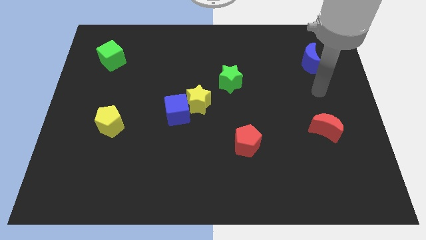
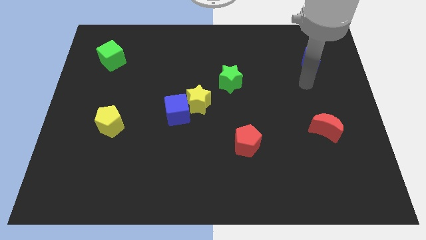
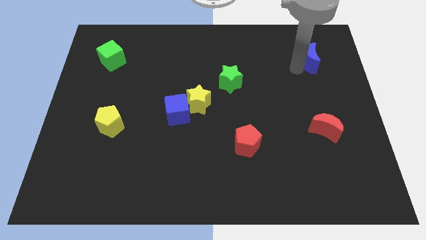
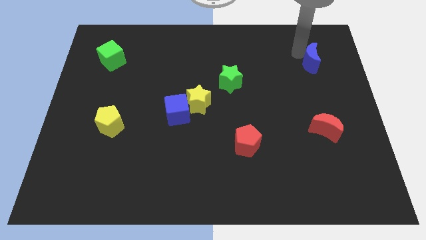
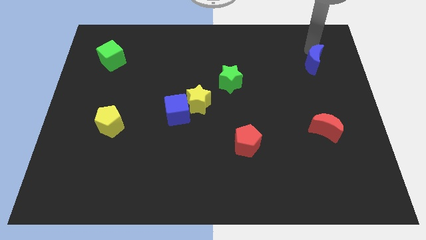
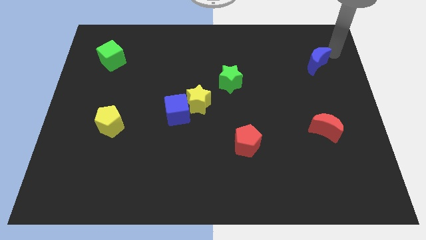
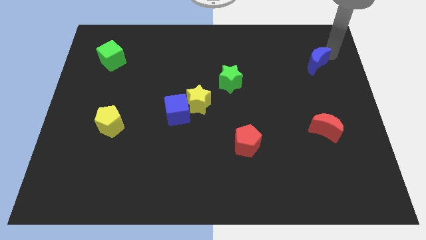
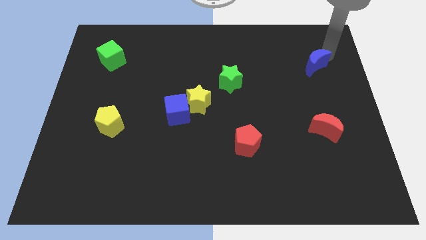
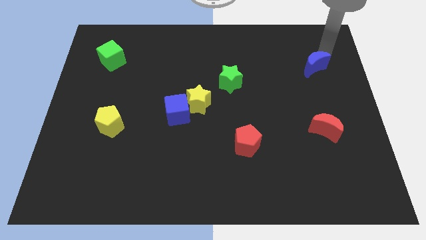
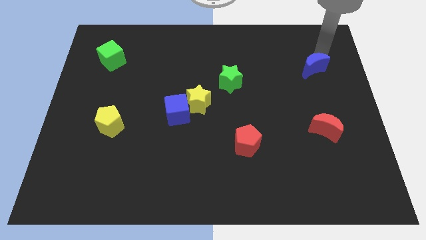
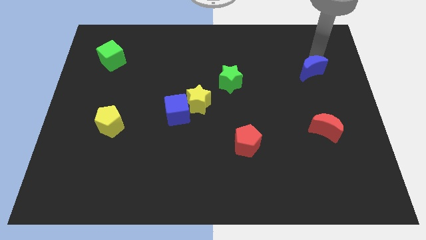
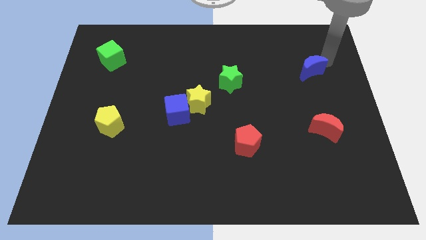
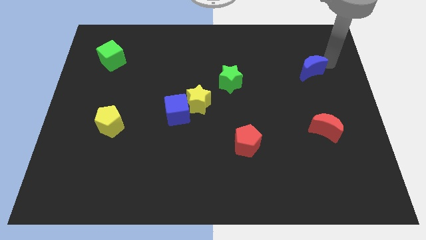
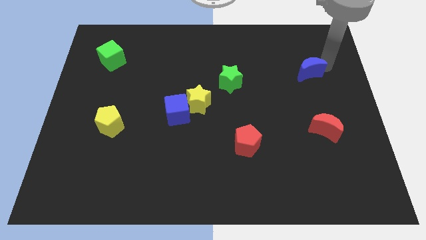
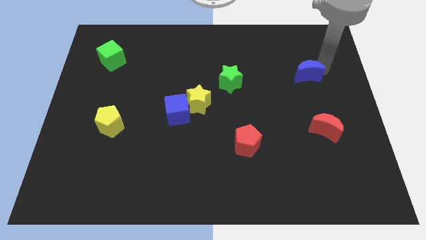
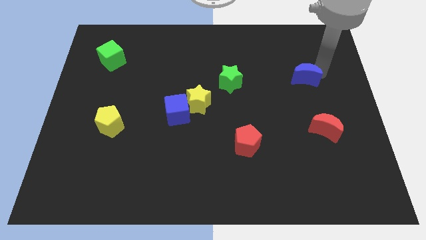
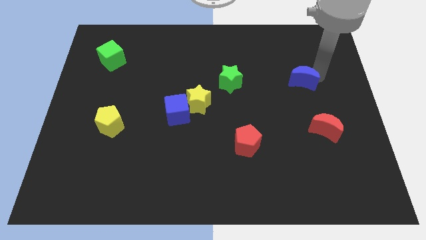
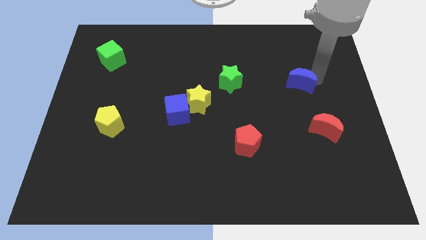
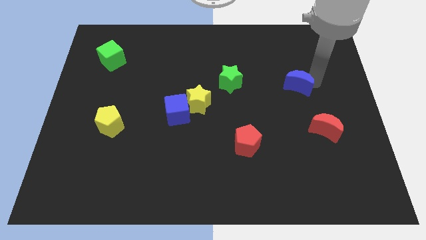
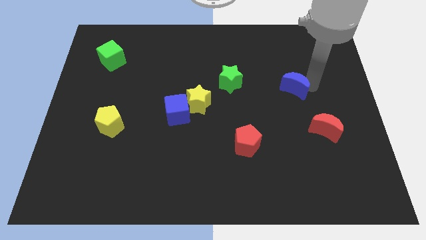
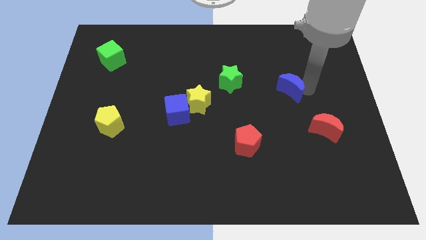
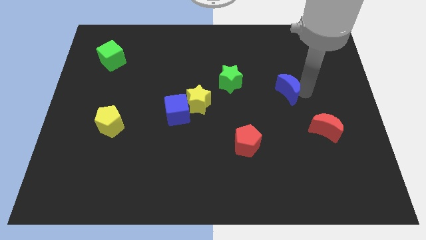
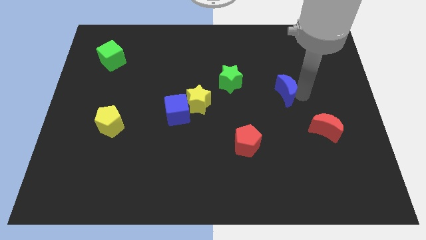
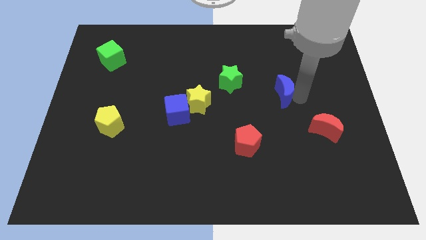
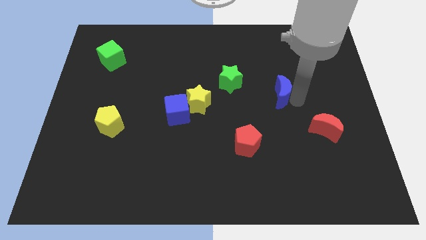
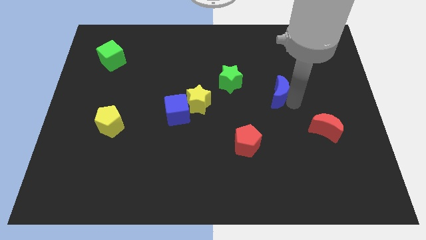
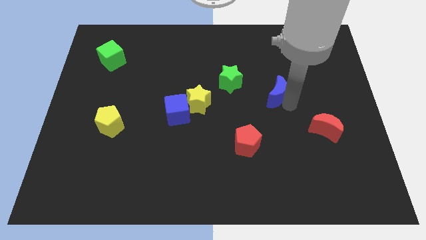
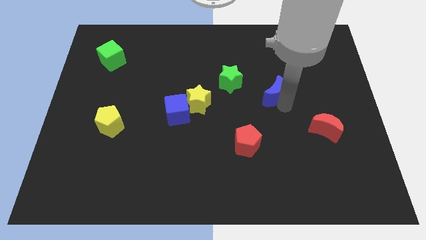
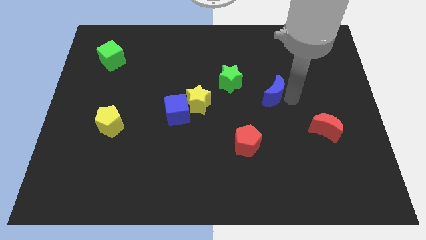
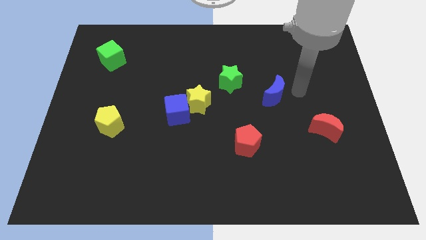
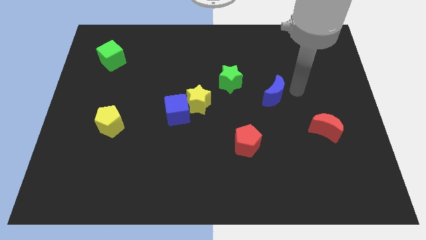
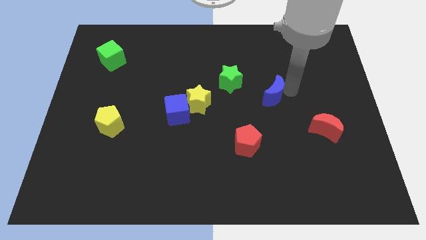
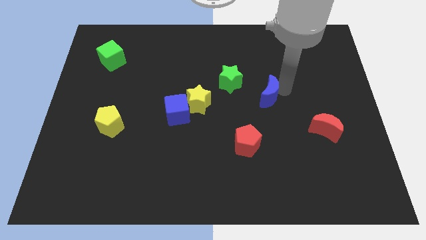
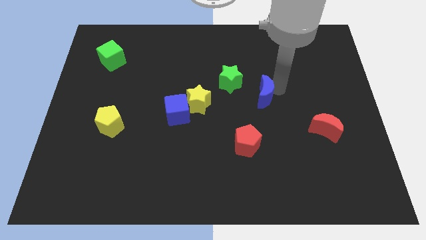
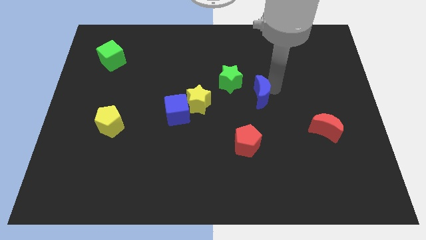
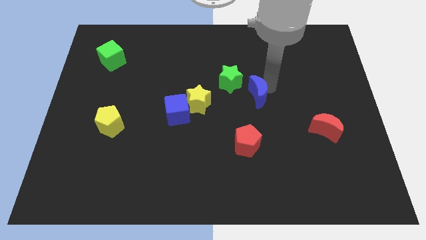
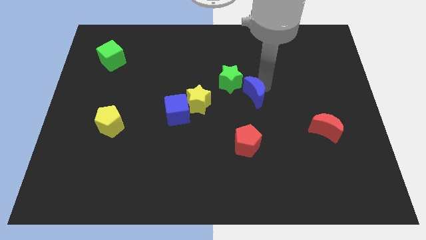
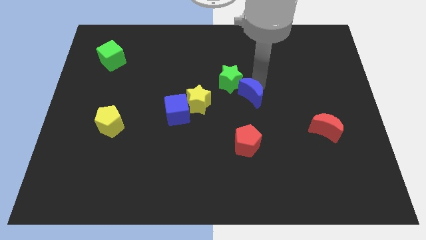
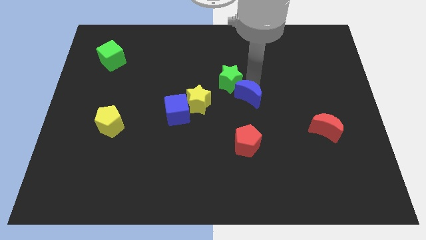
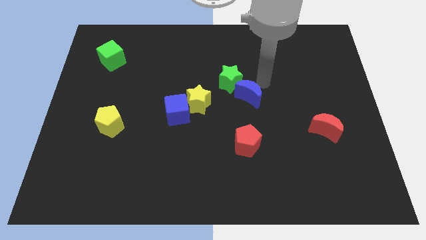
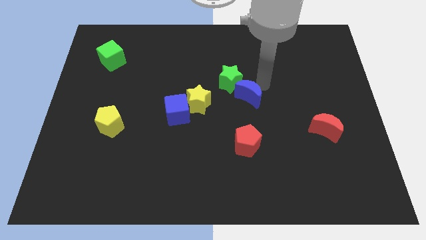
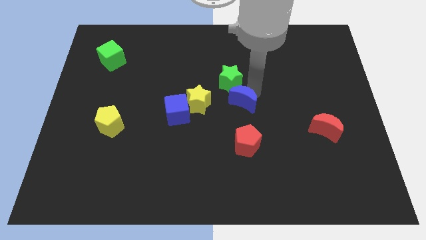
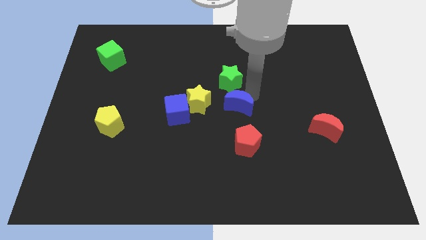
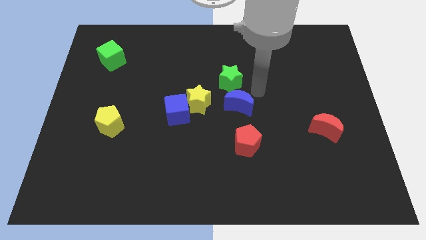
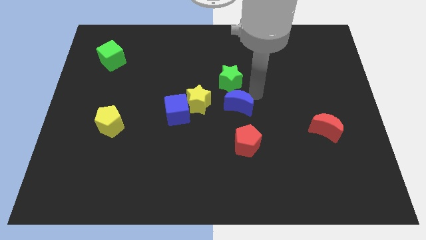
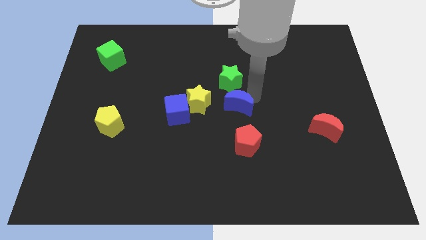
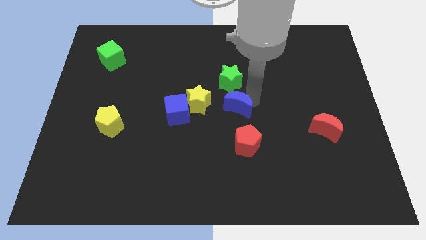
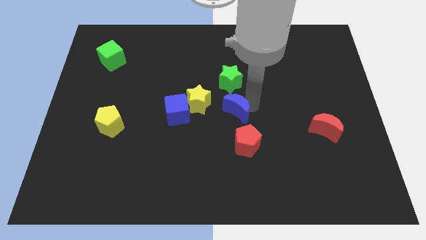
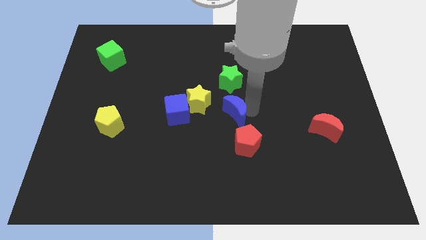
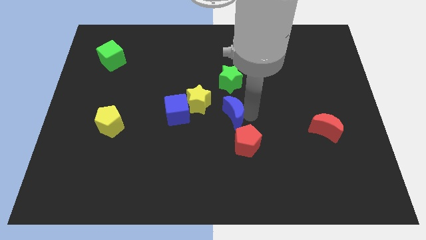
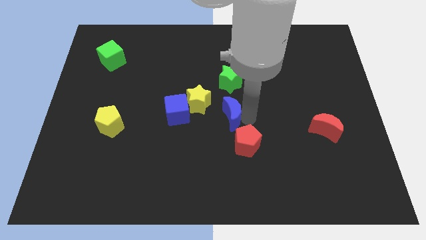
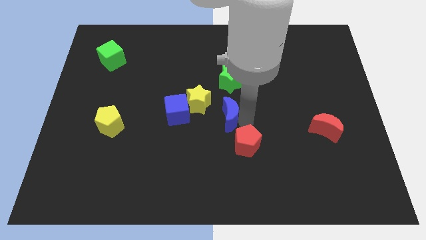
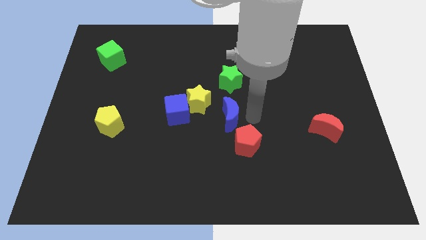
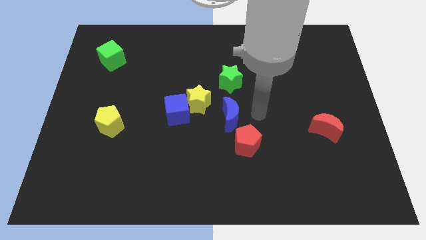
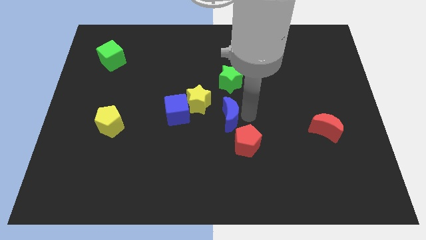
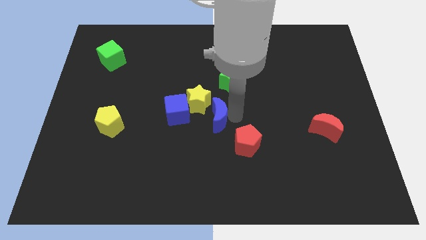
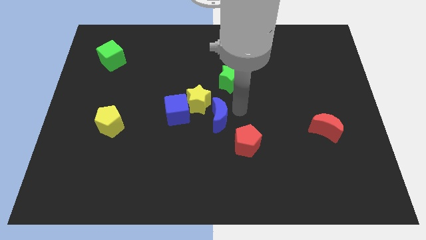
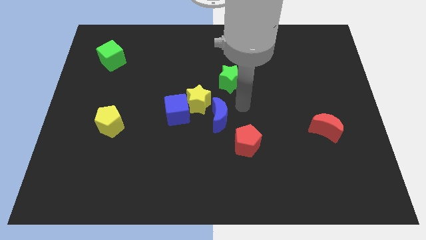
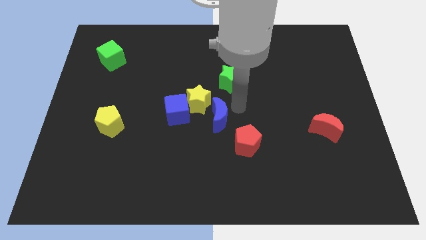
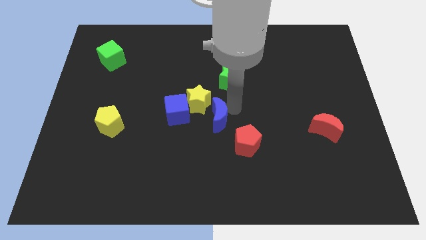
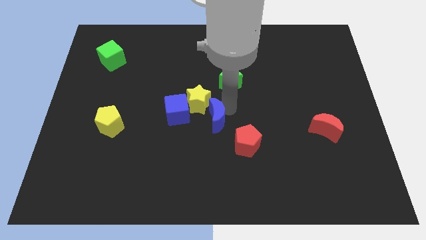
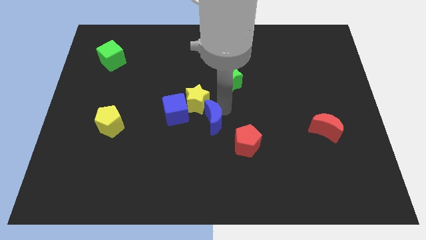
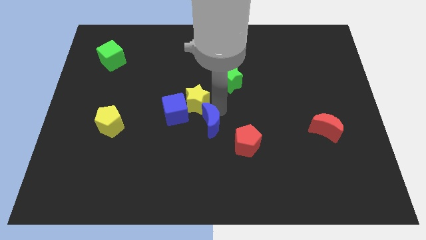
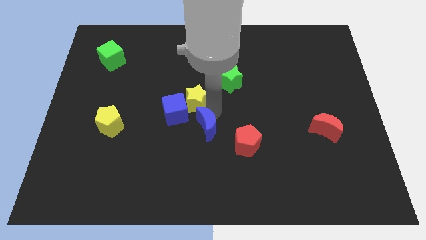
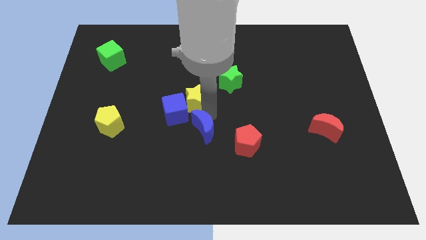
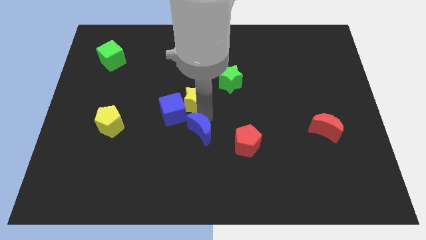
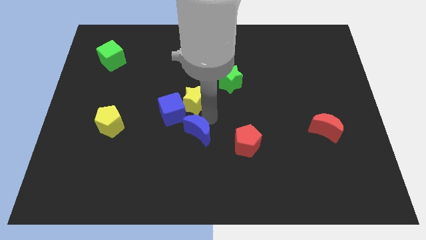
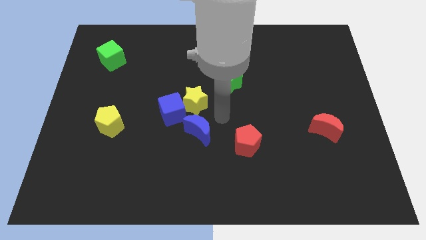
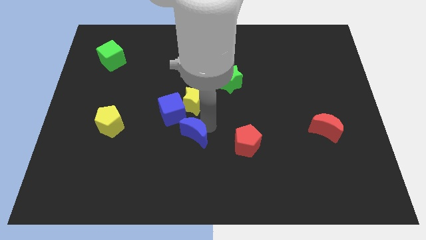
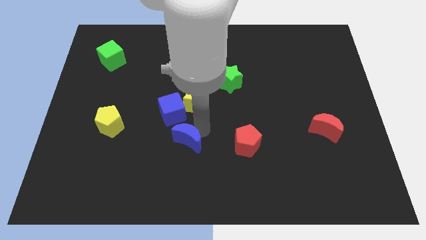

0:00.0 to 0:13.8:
slide the blue moon to the bottom side of the blue cube
